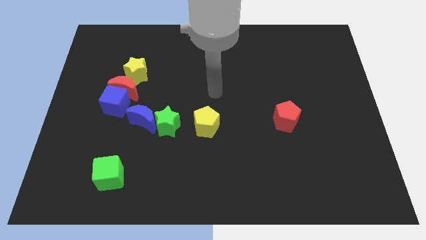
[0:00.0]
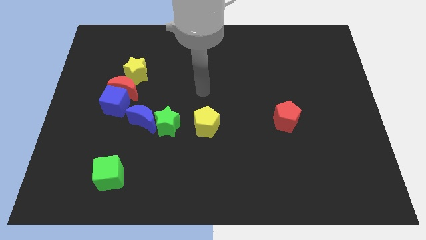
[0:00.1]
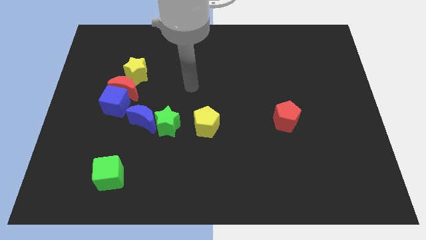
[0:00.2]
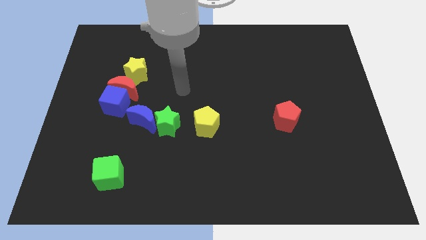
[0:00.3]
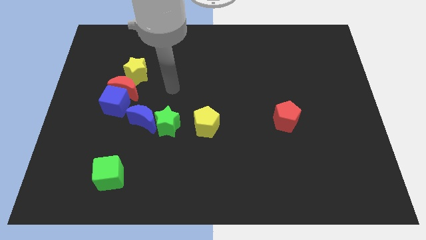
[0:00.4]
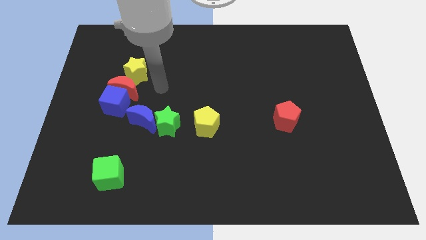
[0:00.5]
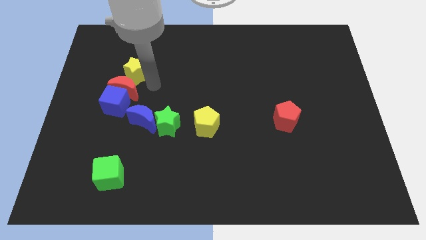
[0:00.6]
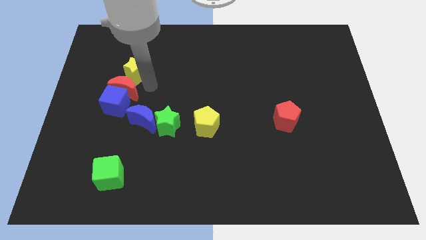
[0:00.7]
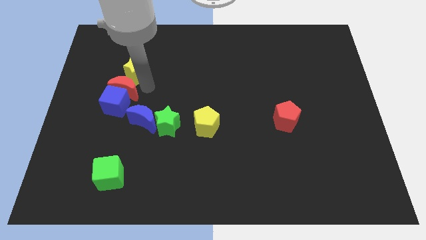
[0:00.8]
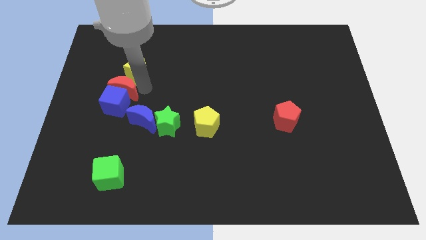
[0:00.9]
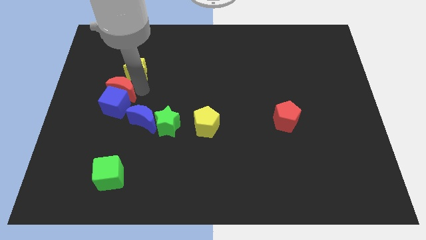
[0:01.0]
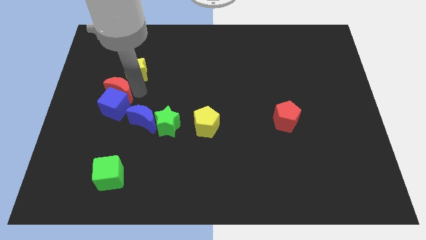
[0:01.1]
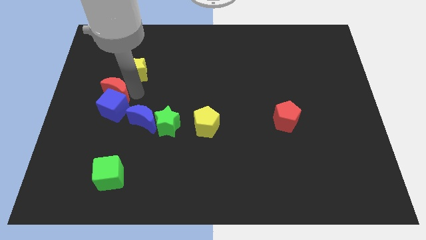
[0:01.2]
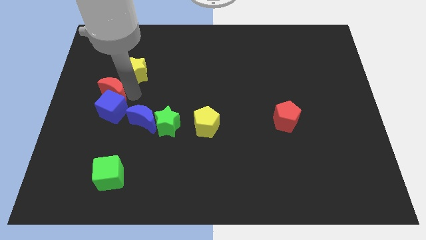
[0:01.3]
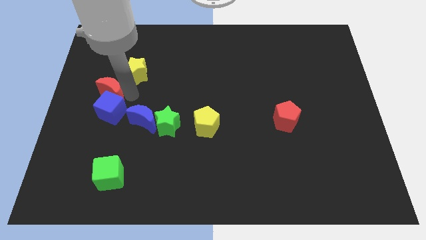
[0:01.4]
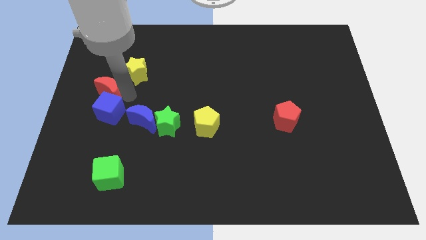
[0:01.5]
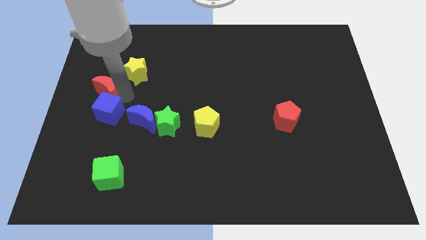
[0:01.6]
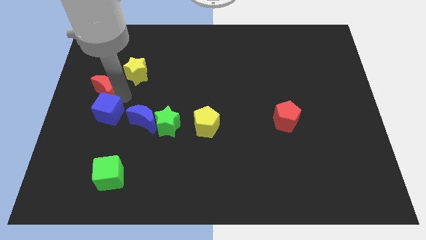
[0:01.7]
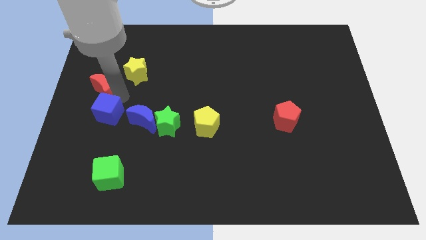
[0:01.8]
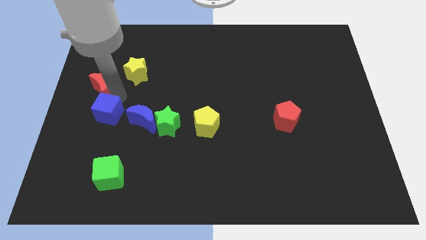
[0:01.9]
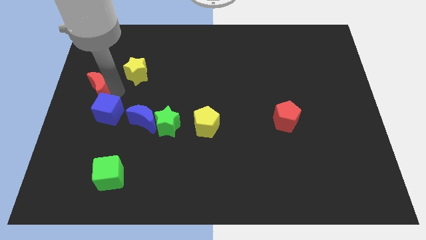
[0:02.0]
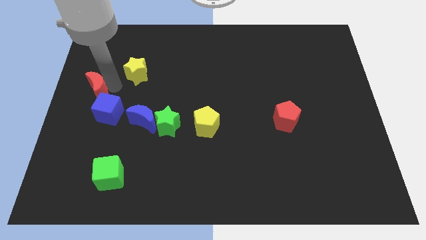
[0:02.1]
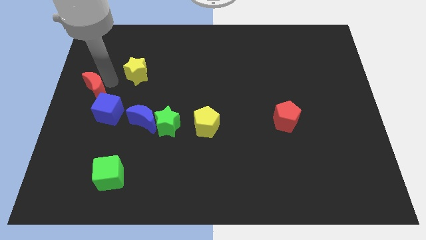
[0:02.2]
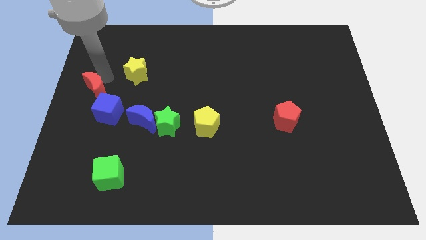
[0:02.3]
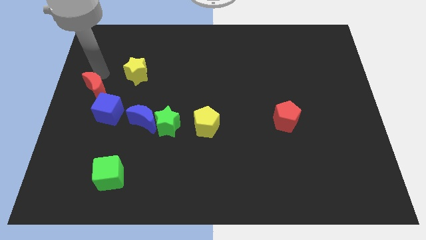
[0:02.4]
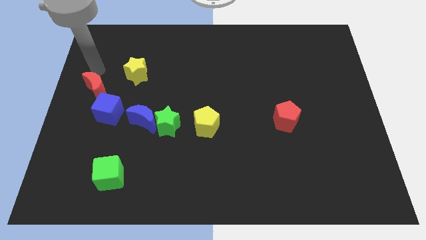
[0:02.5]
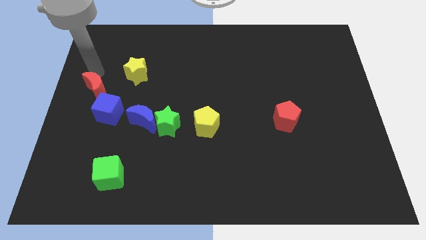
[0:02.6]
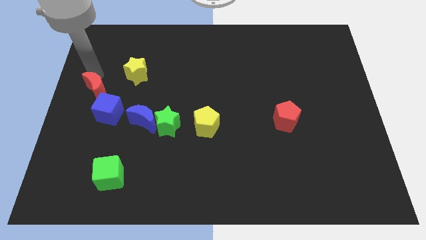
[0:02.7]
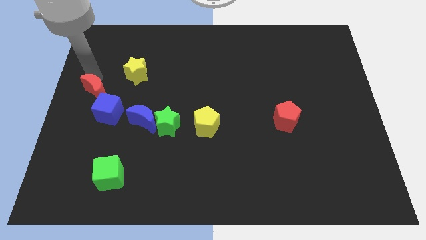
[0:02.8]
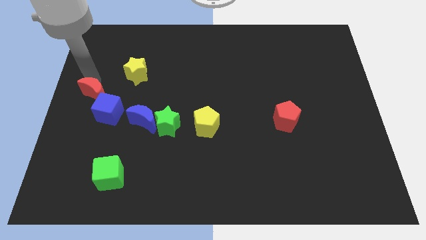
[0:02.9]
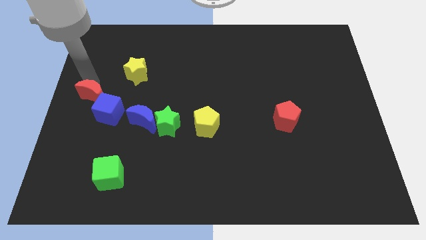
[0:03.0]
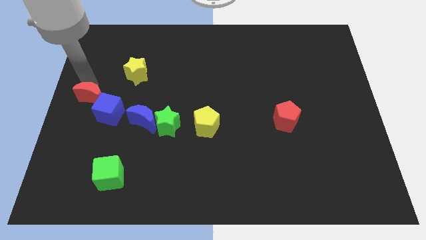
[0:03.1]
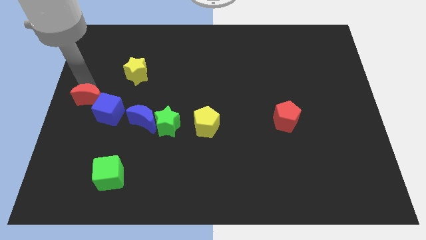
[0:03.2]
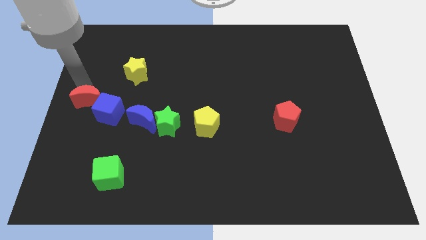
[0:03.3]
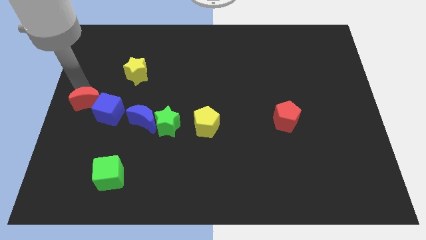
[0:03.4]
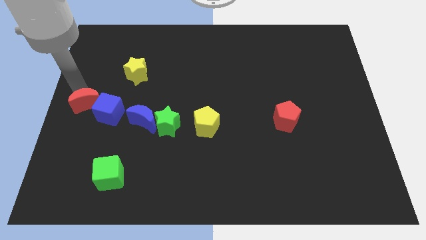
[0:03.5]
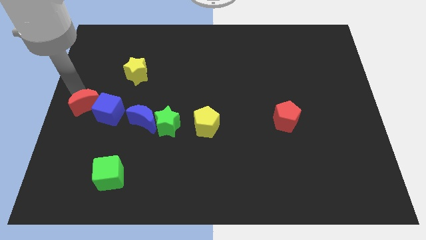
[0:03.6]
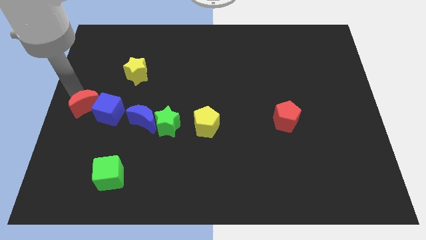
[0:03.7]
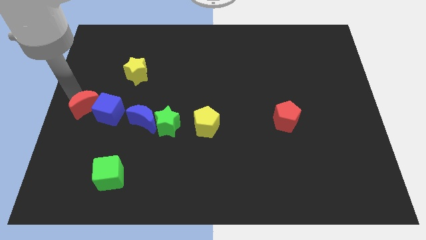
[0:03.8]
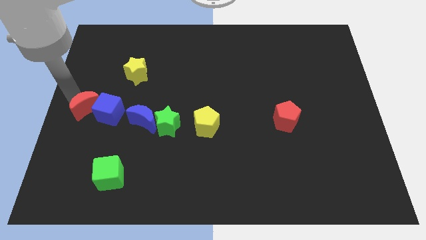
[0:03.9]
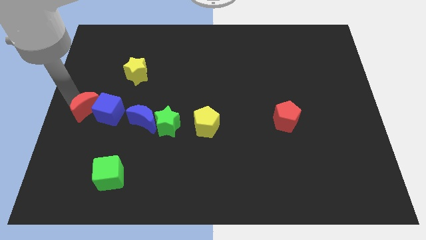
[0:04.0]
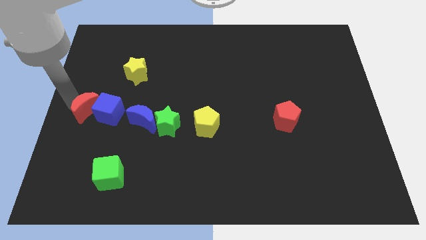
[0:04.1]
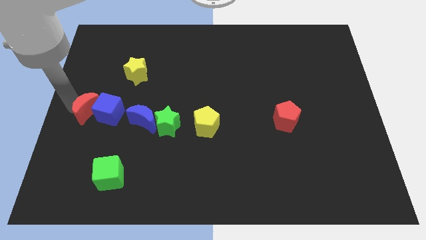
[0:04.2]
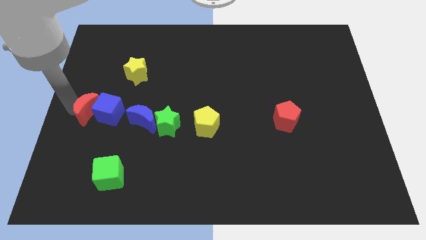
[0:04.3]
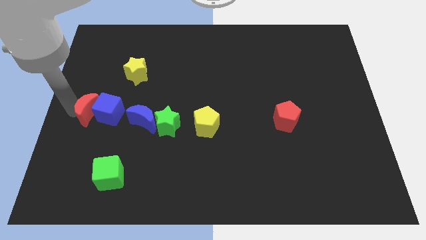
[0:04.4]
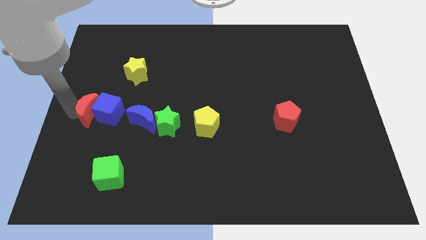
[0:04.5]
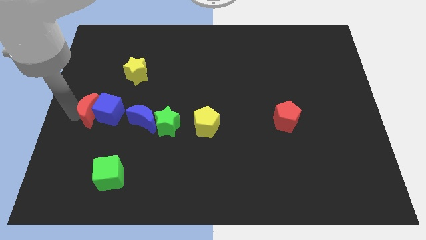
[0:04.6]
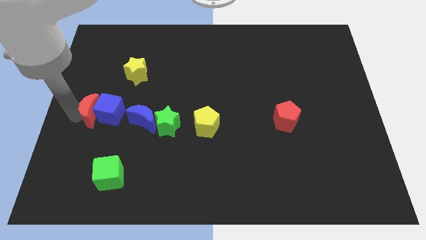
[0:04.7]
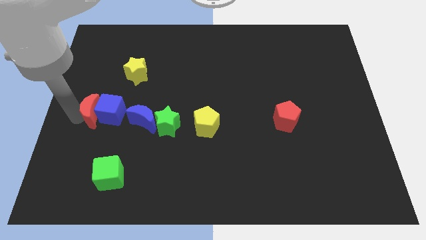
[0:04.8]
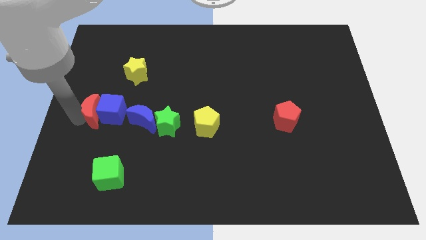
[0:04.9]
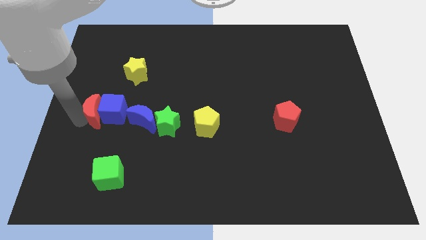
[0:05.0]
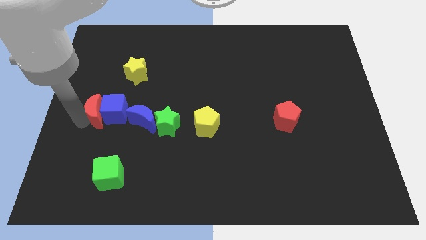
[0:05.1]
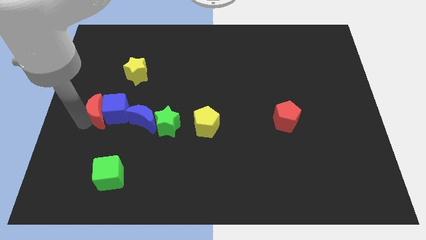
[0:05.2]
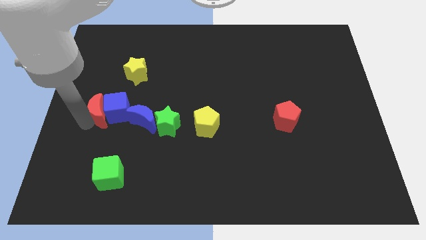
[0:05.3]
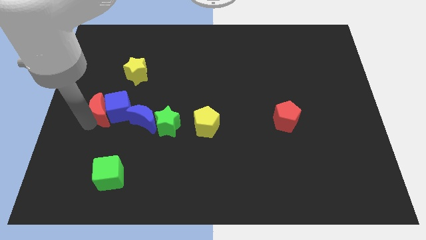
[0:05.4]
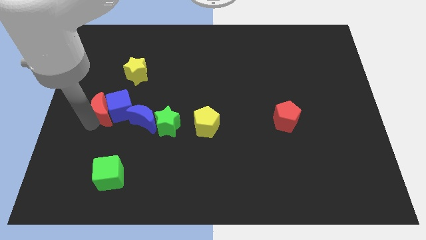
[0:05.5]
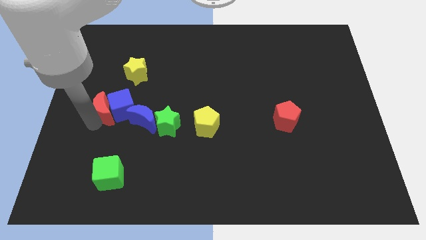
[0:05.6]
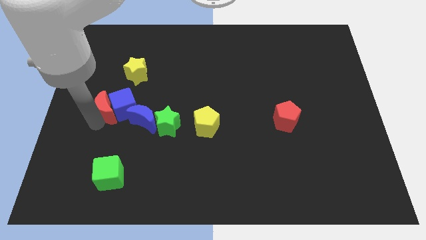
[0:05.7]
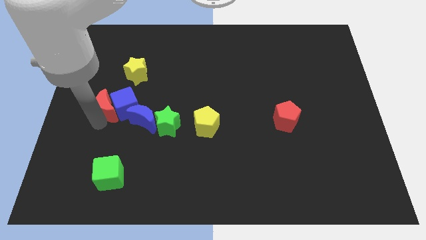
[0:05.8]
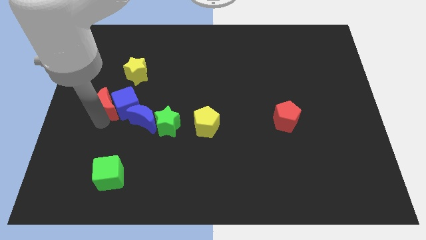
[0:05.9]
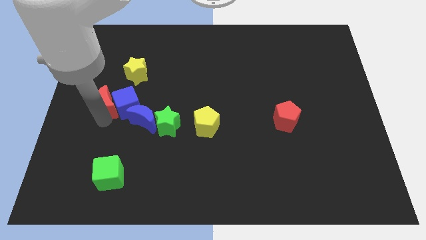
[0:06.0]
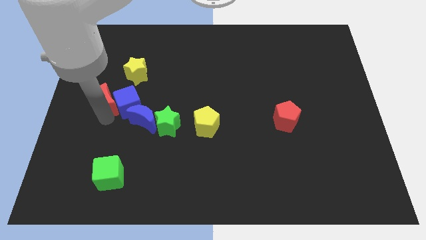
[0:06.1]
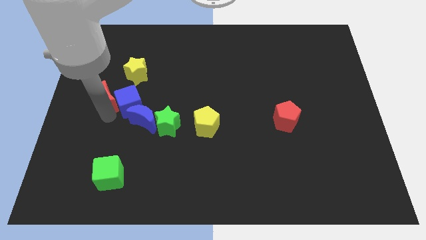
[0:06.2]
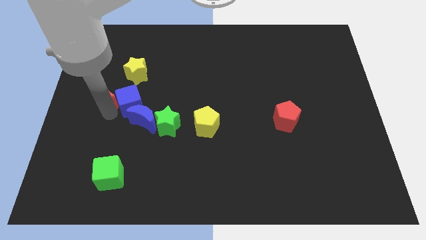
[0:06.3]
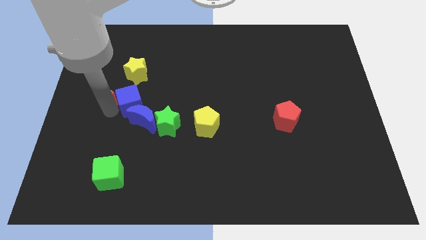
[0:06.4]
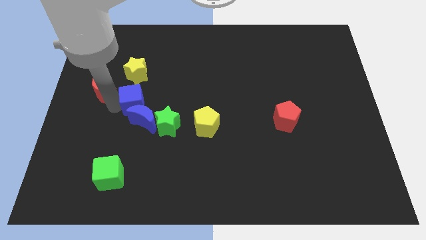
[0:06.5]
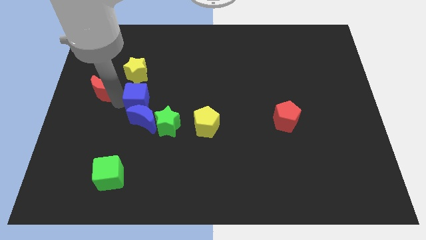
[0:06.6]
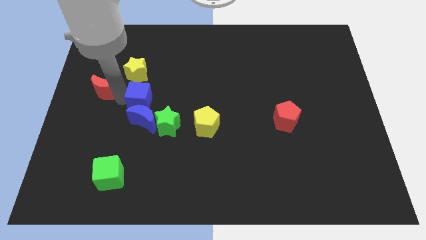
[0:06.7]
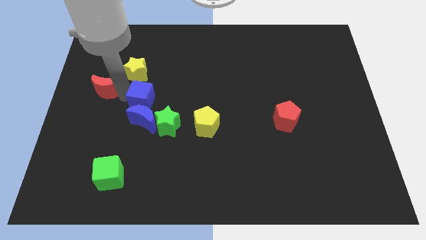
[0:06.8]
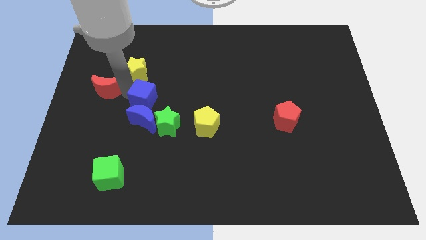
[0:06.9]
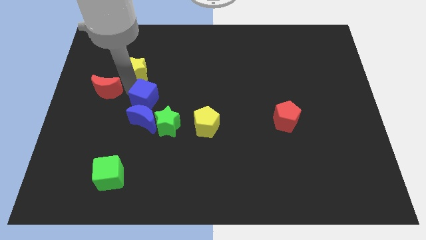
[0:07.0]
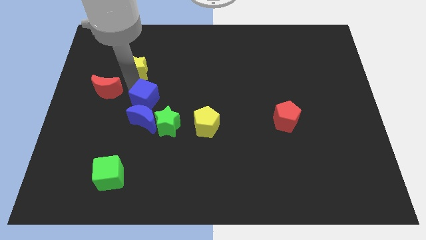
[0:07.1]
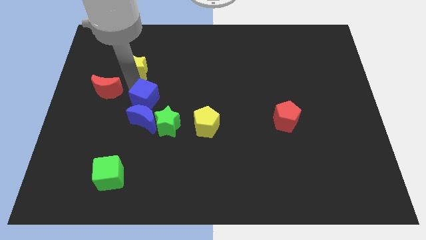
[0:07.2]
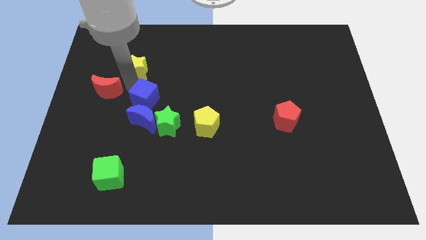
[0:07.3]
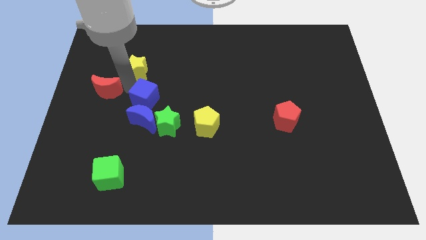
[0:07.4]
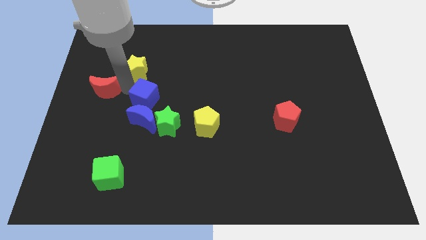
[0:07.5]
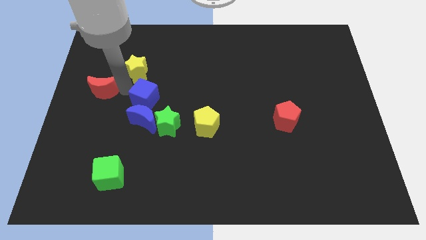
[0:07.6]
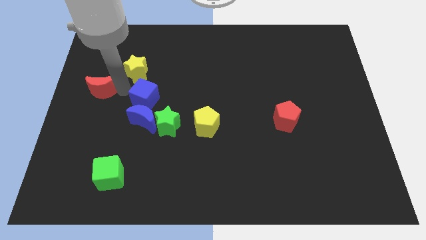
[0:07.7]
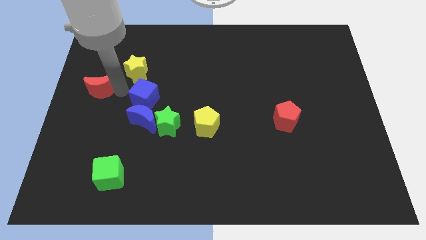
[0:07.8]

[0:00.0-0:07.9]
separate the red moon from the blue cube and yellow star

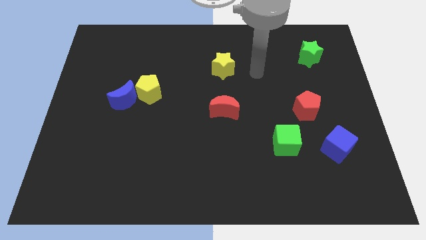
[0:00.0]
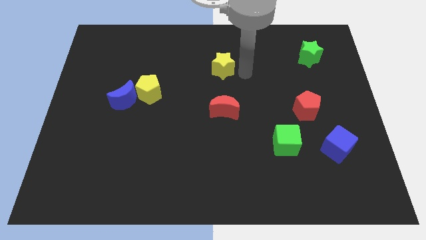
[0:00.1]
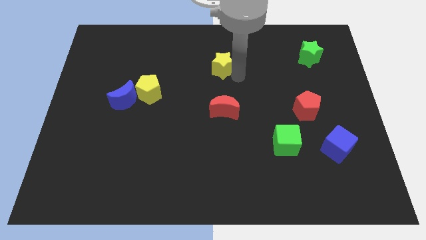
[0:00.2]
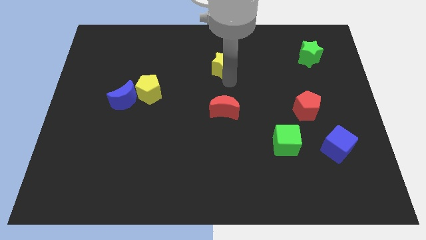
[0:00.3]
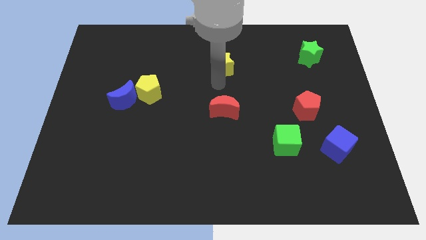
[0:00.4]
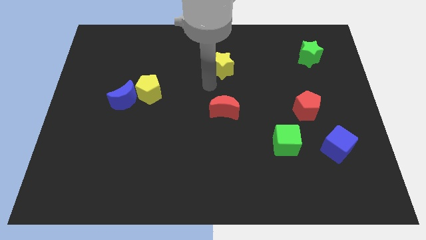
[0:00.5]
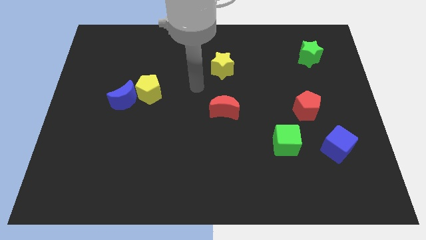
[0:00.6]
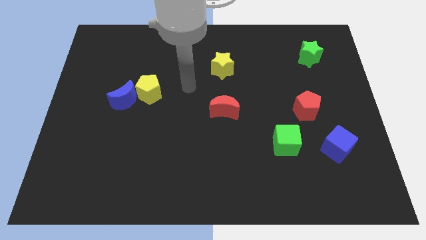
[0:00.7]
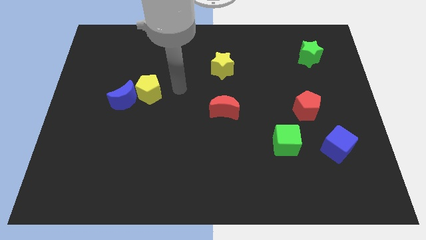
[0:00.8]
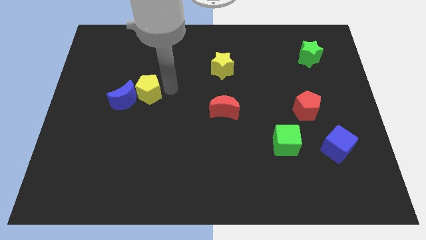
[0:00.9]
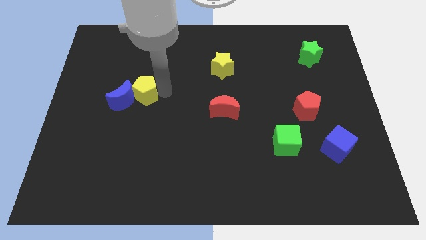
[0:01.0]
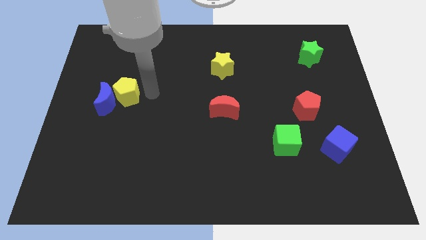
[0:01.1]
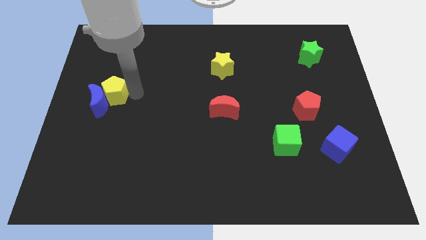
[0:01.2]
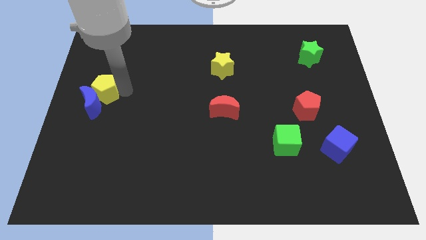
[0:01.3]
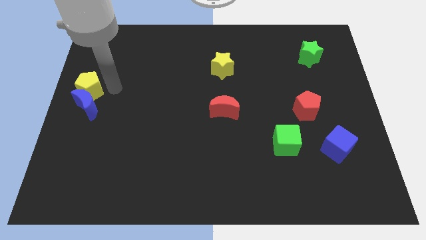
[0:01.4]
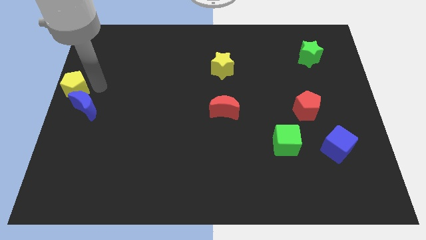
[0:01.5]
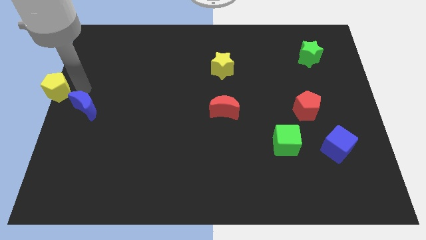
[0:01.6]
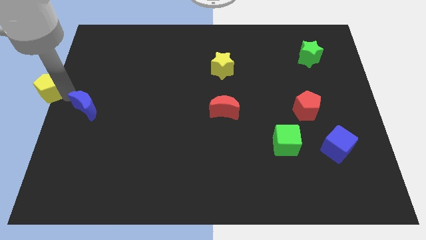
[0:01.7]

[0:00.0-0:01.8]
separate the blue moon from the yellow pentagon
